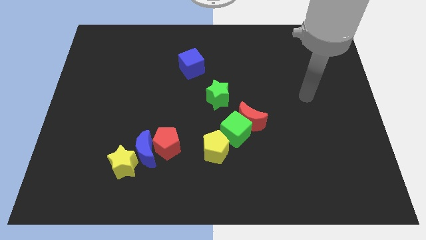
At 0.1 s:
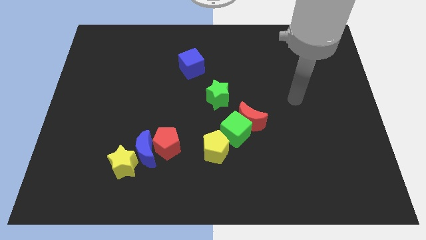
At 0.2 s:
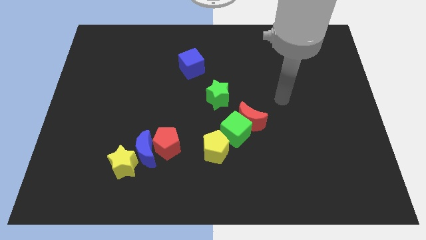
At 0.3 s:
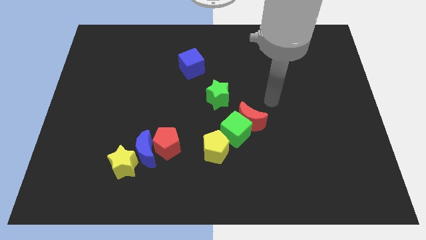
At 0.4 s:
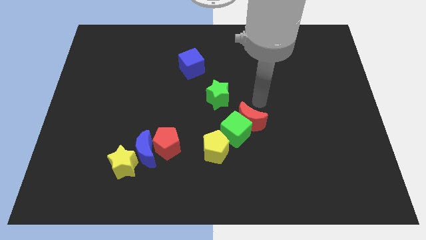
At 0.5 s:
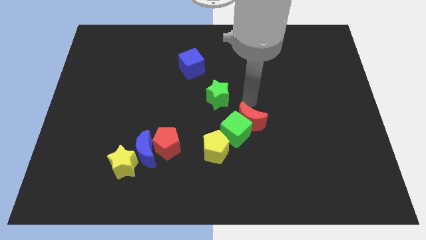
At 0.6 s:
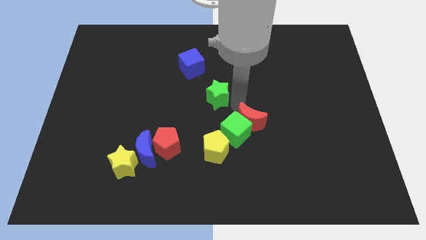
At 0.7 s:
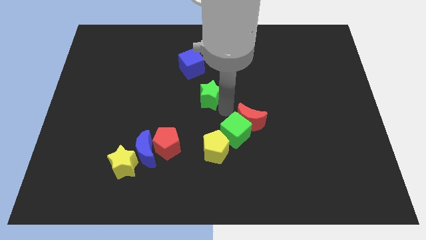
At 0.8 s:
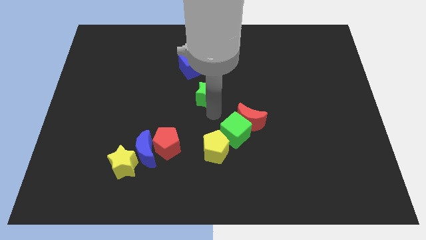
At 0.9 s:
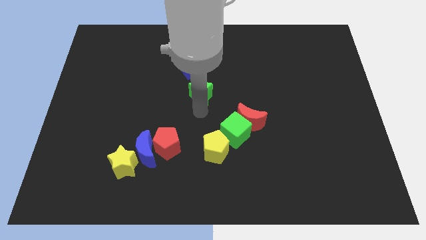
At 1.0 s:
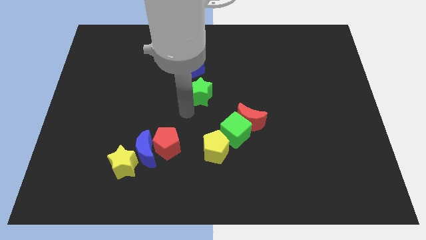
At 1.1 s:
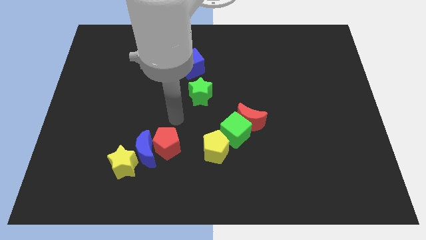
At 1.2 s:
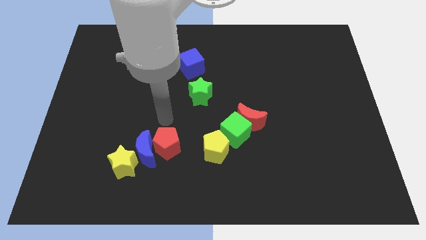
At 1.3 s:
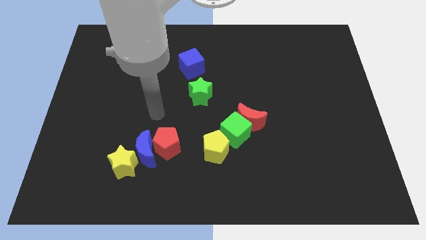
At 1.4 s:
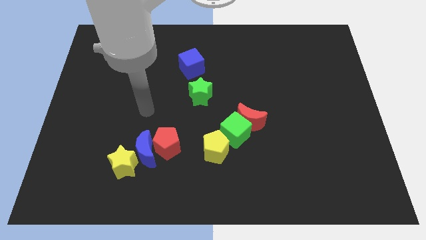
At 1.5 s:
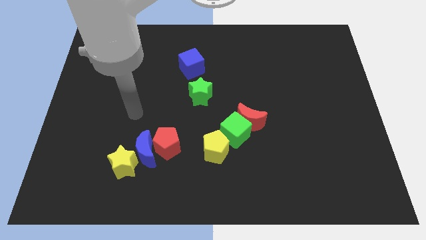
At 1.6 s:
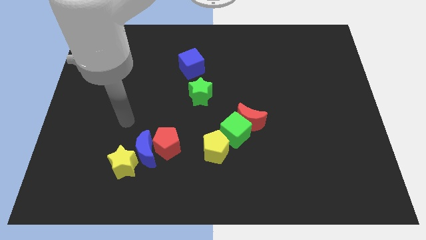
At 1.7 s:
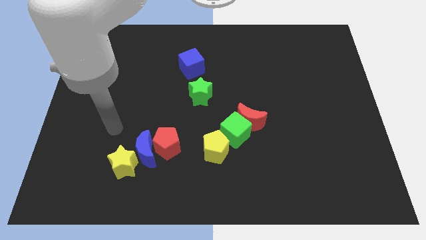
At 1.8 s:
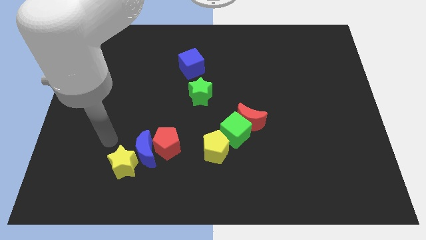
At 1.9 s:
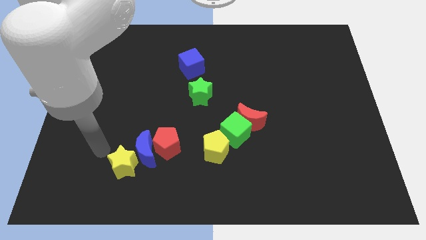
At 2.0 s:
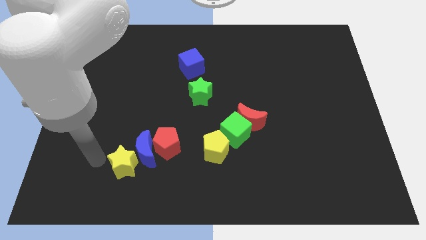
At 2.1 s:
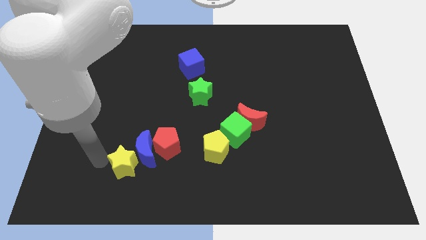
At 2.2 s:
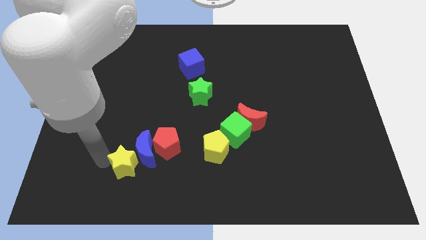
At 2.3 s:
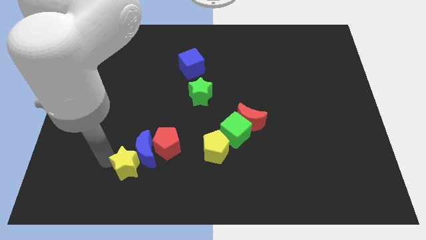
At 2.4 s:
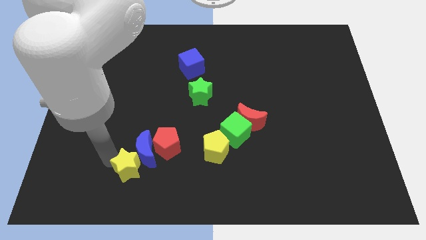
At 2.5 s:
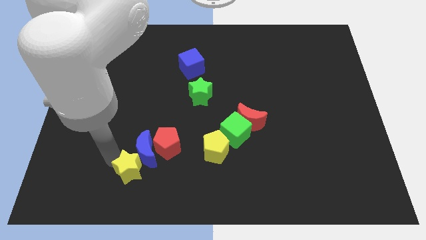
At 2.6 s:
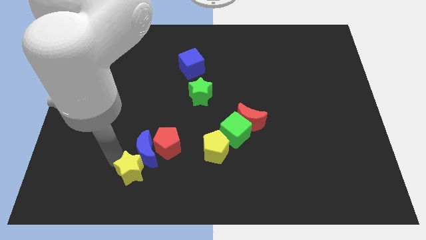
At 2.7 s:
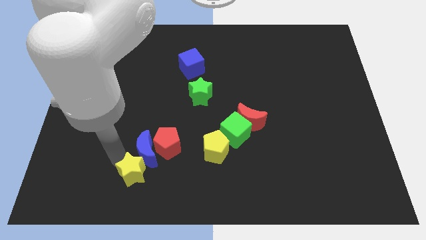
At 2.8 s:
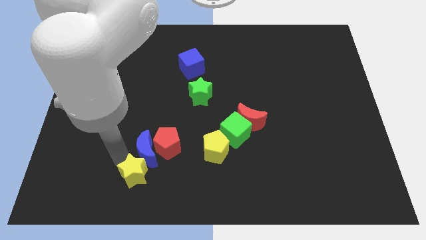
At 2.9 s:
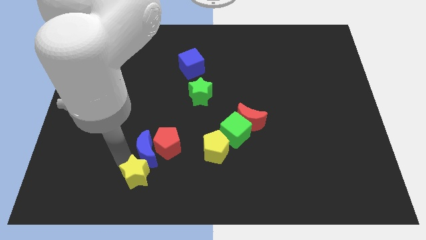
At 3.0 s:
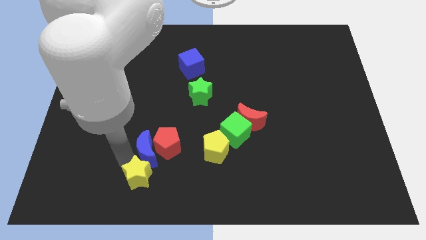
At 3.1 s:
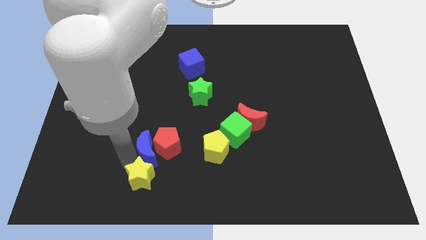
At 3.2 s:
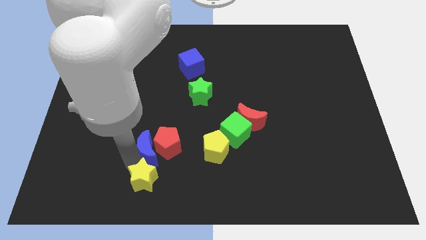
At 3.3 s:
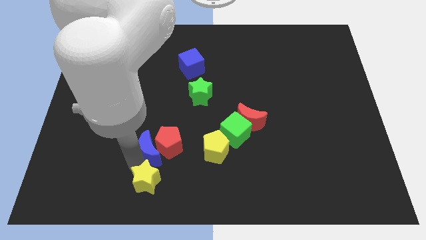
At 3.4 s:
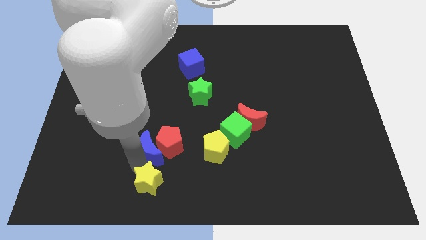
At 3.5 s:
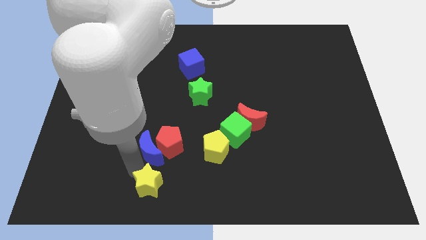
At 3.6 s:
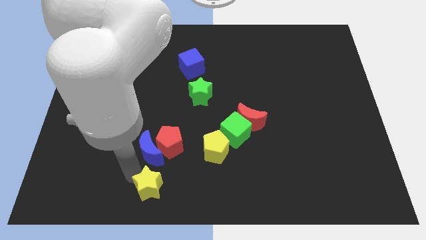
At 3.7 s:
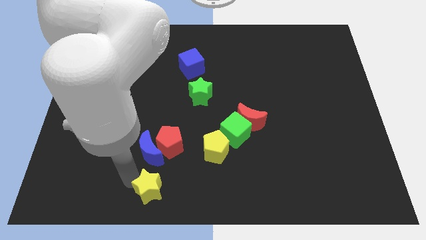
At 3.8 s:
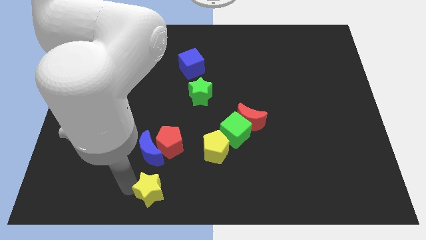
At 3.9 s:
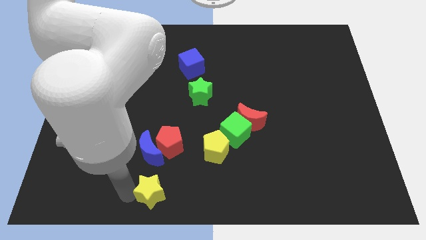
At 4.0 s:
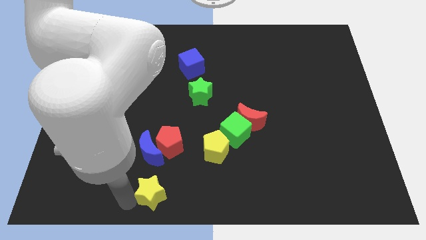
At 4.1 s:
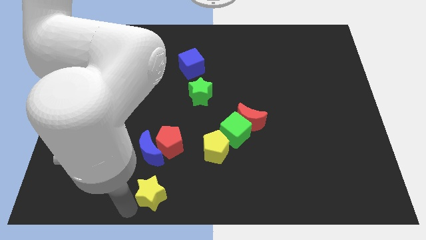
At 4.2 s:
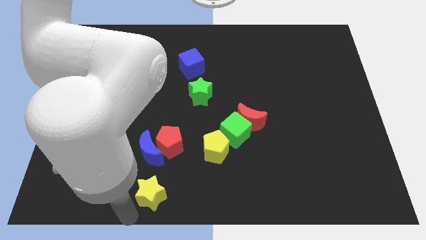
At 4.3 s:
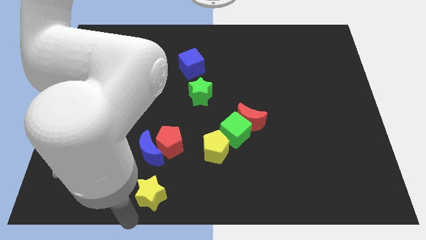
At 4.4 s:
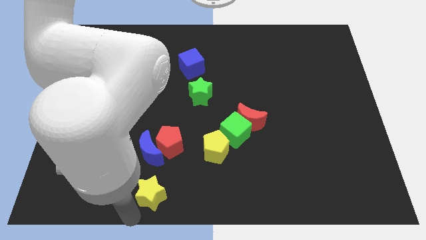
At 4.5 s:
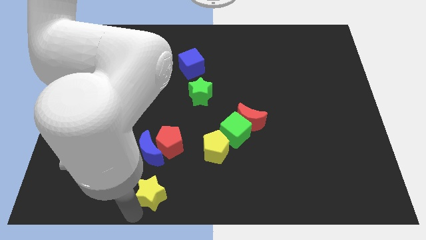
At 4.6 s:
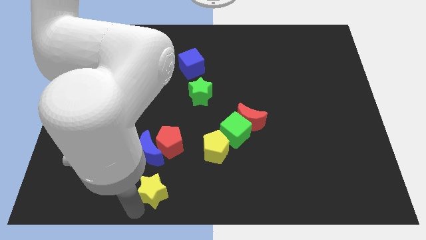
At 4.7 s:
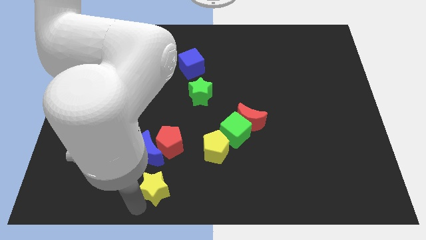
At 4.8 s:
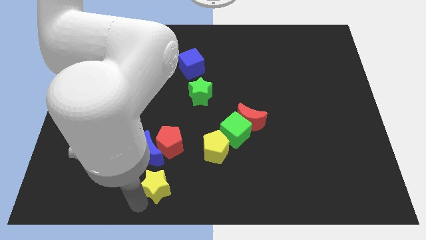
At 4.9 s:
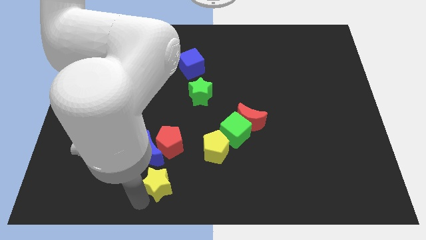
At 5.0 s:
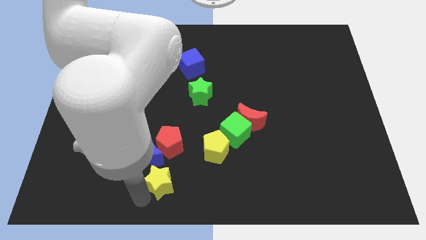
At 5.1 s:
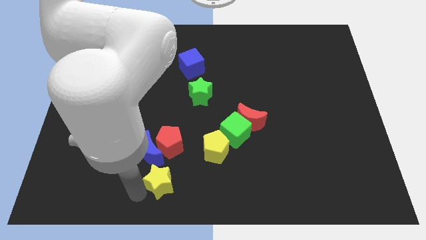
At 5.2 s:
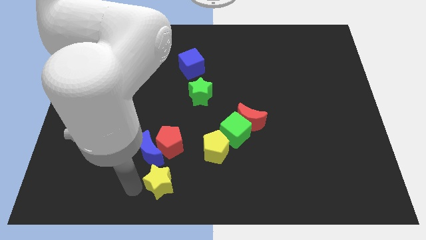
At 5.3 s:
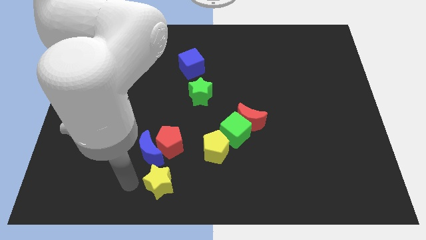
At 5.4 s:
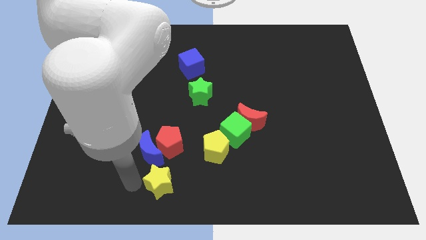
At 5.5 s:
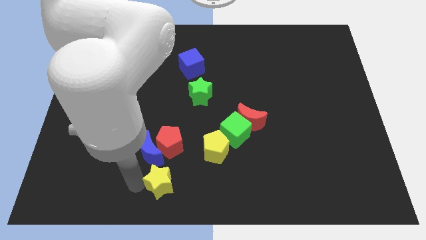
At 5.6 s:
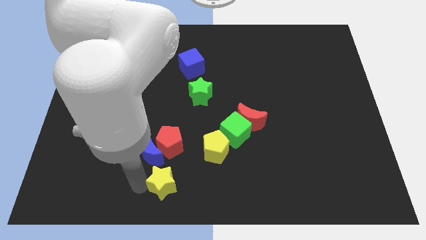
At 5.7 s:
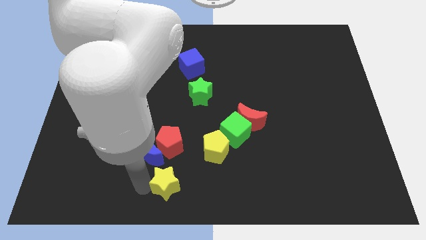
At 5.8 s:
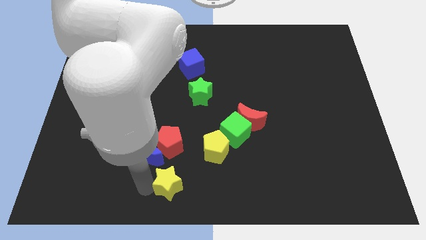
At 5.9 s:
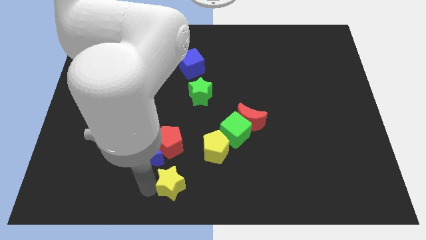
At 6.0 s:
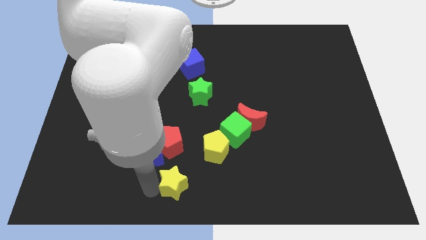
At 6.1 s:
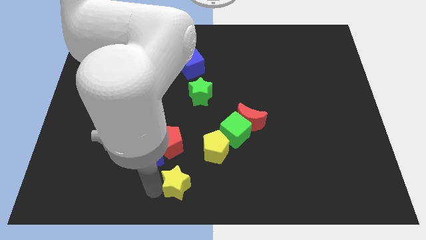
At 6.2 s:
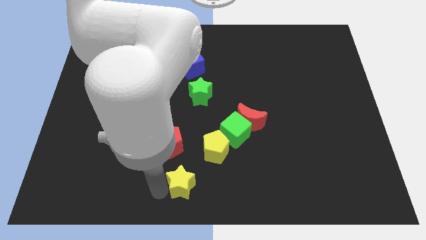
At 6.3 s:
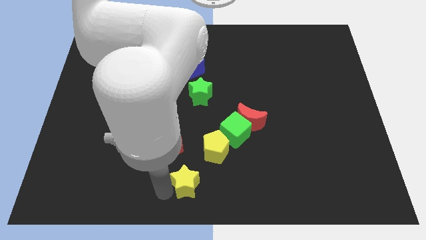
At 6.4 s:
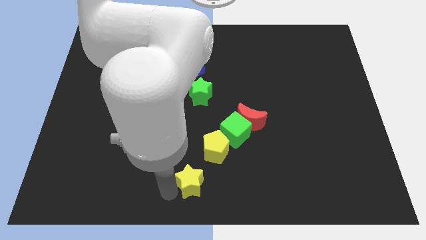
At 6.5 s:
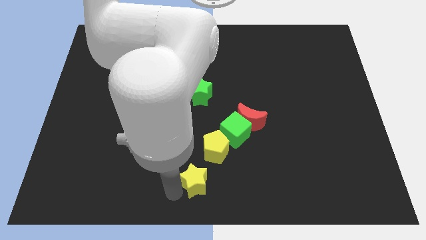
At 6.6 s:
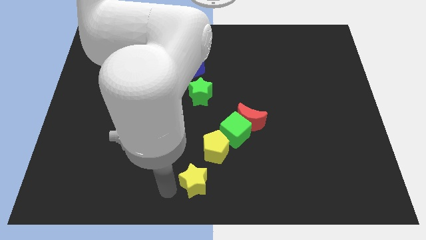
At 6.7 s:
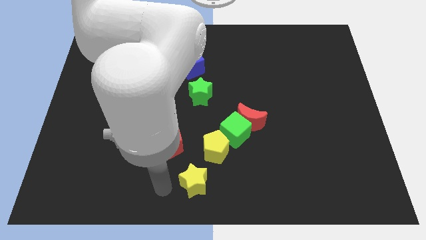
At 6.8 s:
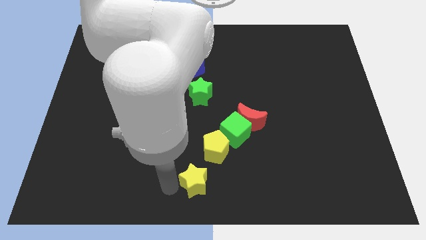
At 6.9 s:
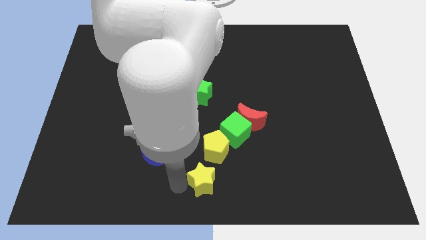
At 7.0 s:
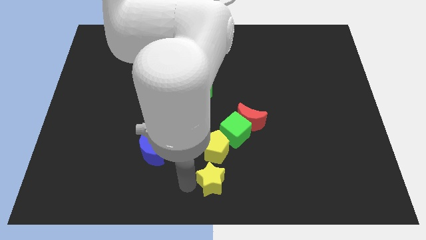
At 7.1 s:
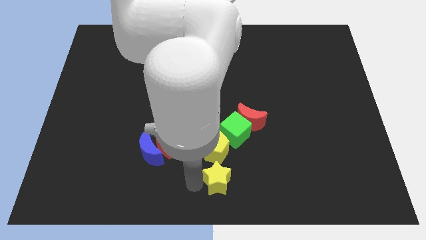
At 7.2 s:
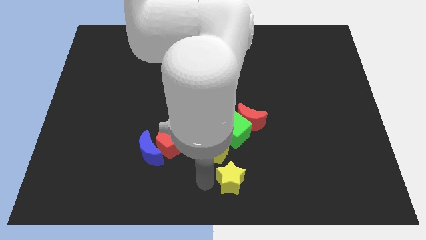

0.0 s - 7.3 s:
push the yellow star to the right

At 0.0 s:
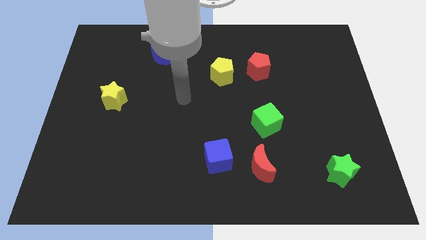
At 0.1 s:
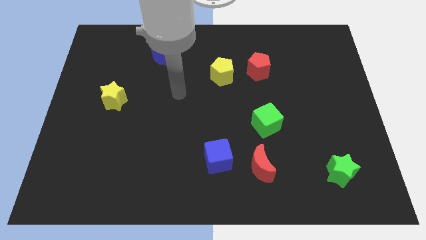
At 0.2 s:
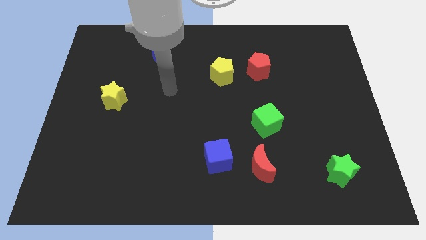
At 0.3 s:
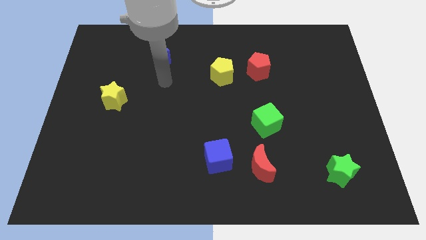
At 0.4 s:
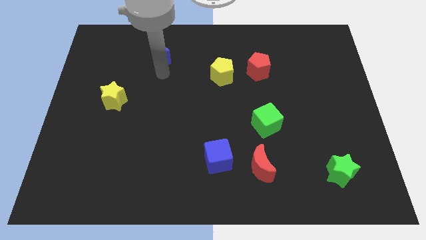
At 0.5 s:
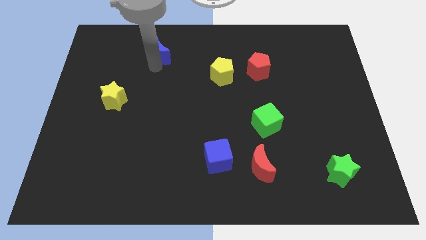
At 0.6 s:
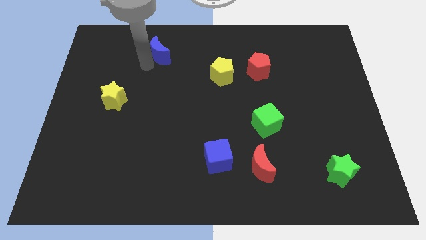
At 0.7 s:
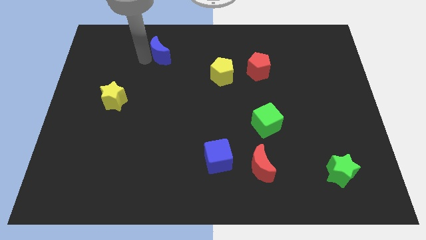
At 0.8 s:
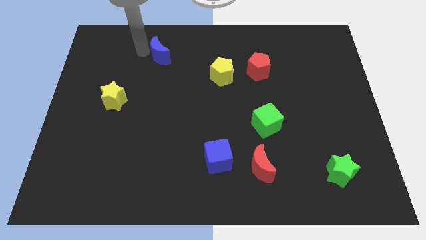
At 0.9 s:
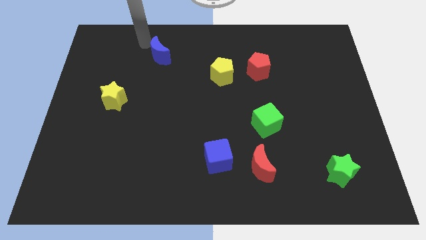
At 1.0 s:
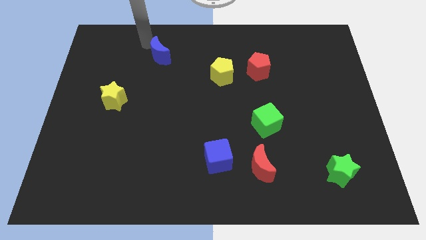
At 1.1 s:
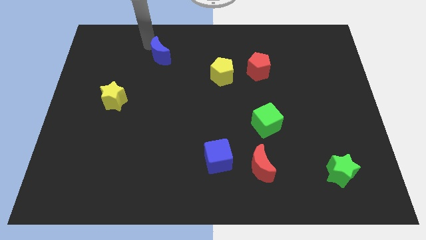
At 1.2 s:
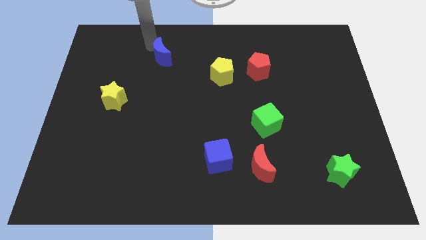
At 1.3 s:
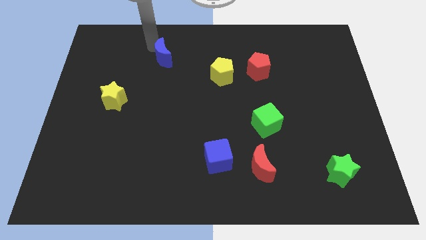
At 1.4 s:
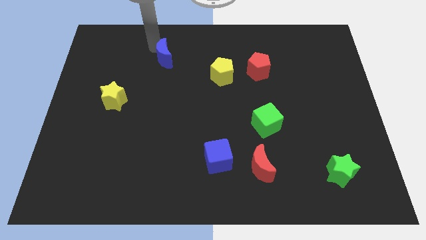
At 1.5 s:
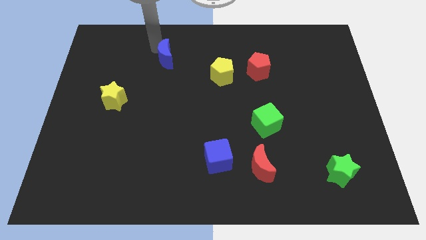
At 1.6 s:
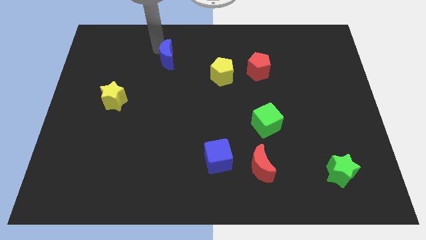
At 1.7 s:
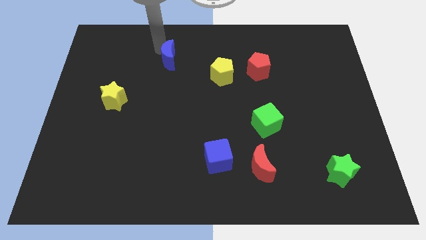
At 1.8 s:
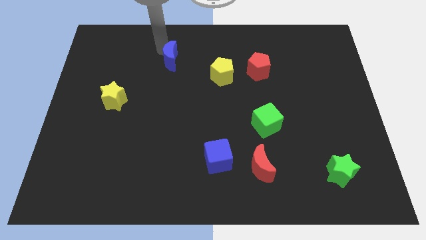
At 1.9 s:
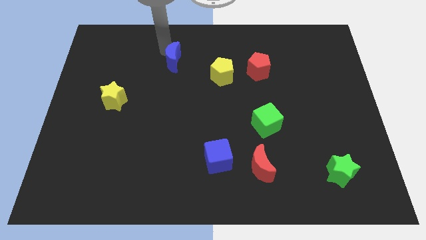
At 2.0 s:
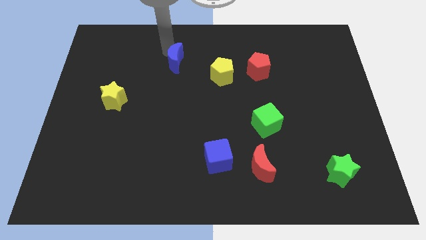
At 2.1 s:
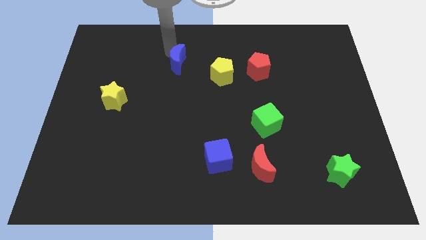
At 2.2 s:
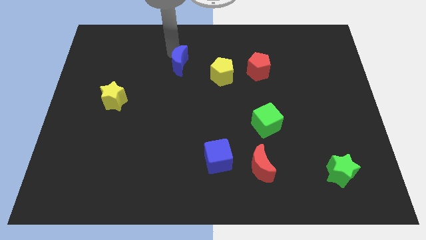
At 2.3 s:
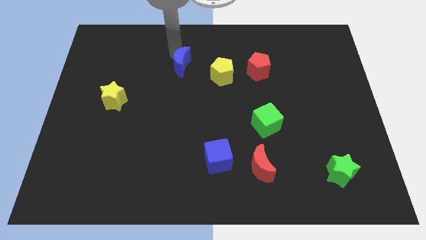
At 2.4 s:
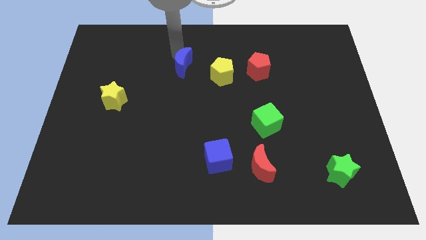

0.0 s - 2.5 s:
move the blue moon diagonally downwards and to the right a little bit
